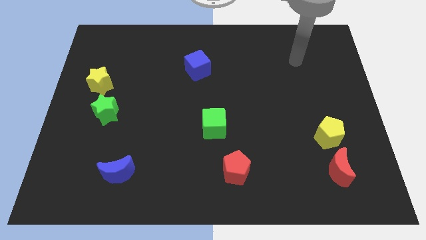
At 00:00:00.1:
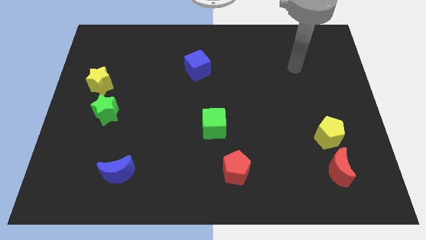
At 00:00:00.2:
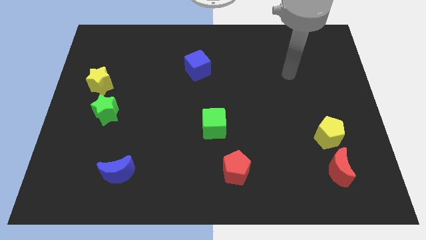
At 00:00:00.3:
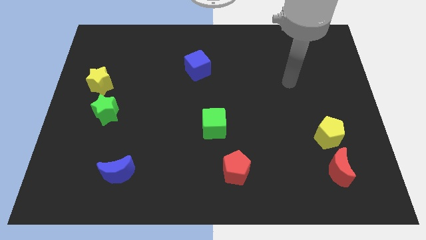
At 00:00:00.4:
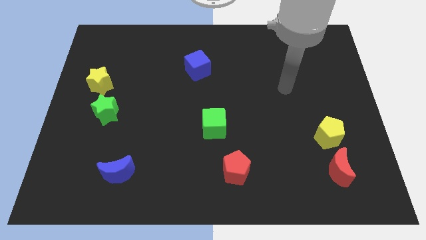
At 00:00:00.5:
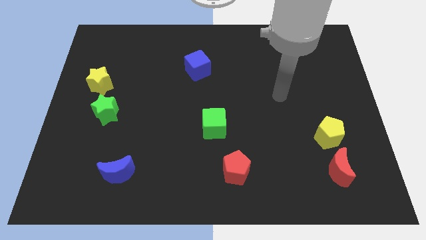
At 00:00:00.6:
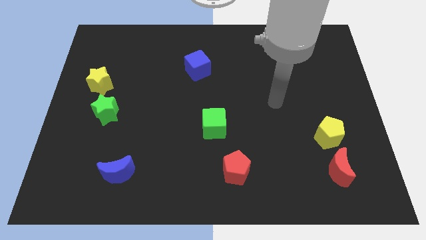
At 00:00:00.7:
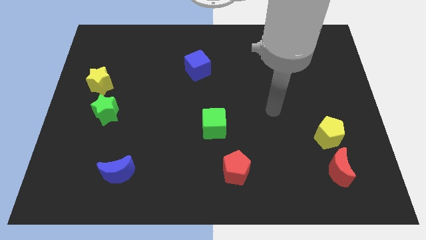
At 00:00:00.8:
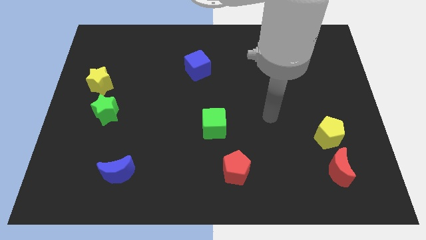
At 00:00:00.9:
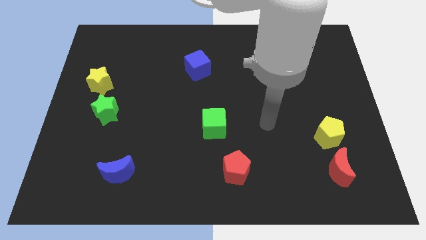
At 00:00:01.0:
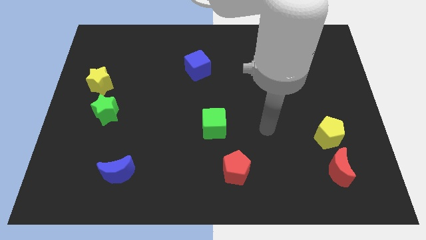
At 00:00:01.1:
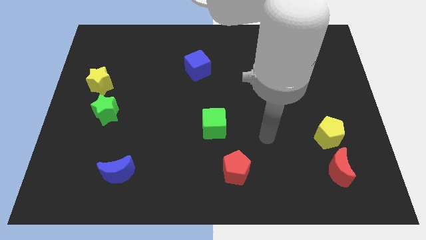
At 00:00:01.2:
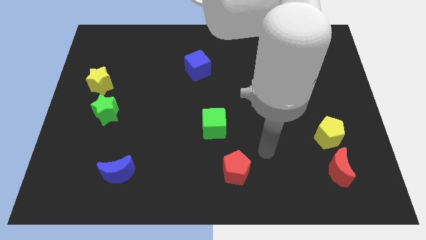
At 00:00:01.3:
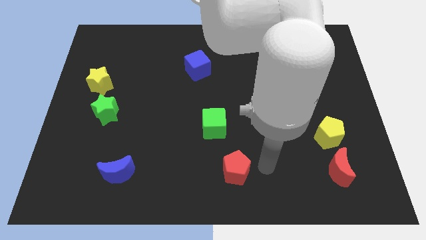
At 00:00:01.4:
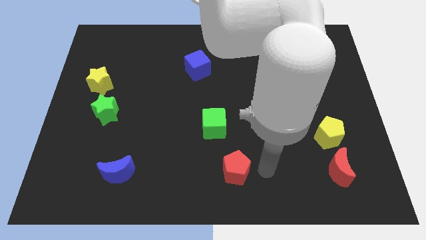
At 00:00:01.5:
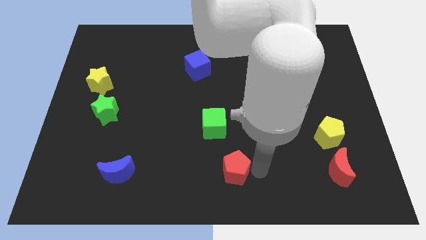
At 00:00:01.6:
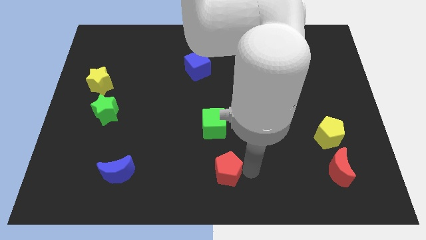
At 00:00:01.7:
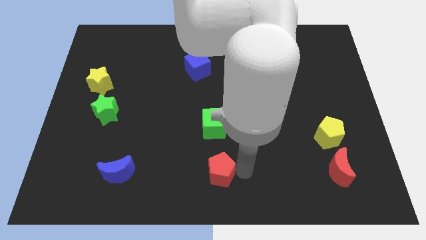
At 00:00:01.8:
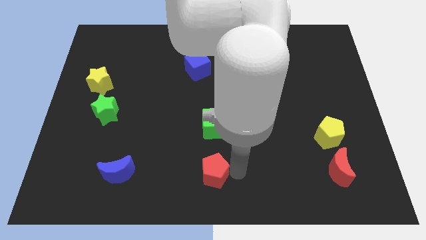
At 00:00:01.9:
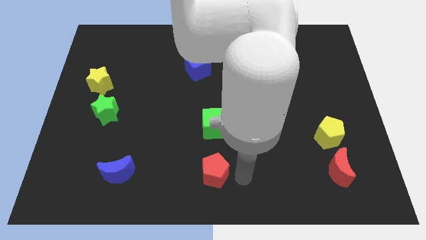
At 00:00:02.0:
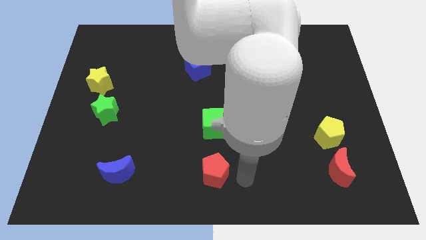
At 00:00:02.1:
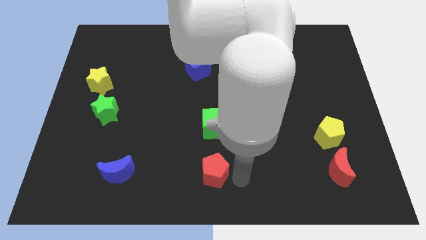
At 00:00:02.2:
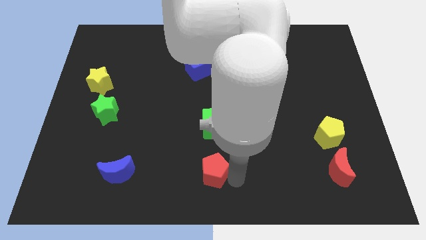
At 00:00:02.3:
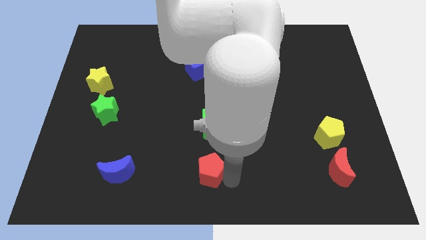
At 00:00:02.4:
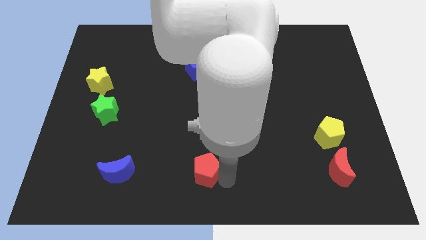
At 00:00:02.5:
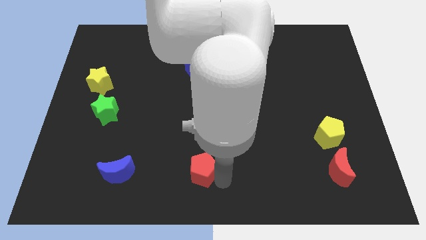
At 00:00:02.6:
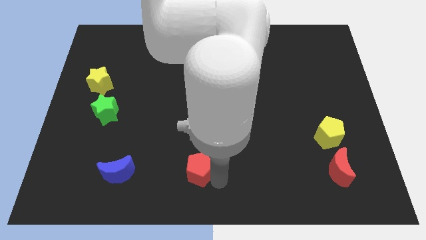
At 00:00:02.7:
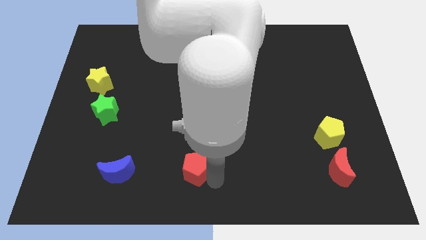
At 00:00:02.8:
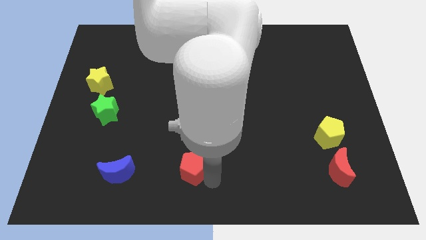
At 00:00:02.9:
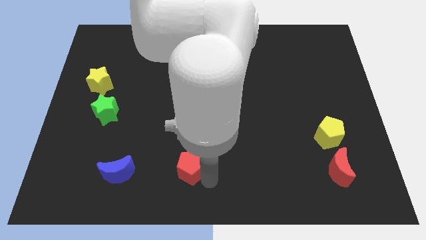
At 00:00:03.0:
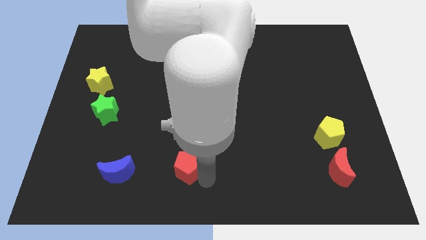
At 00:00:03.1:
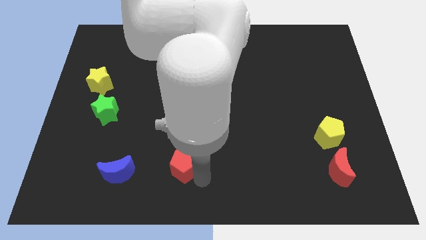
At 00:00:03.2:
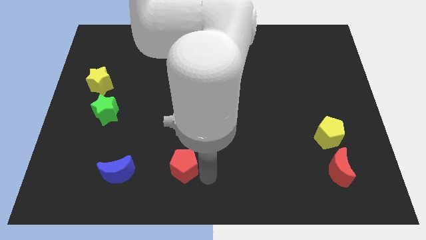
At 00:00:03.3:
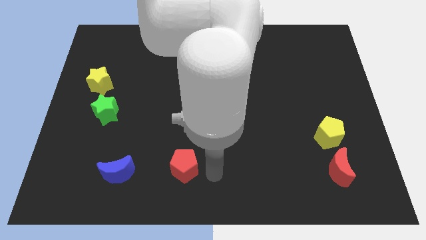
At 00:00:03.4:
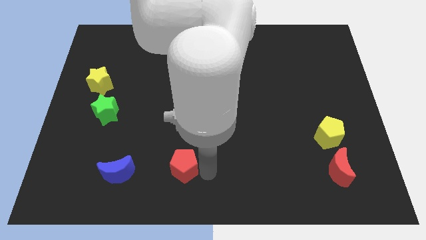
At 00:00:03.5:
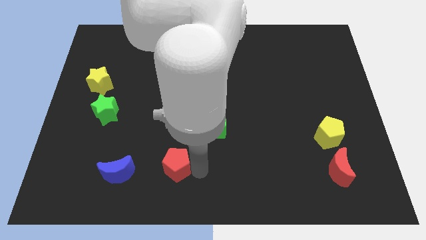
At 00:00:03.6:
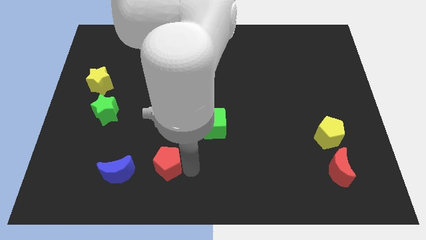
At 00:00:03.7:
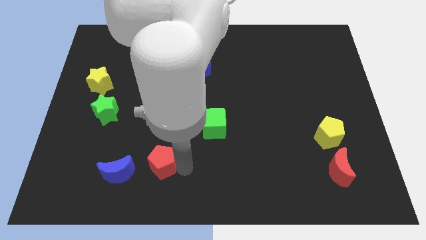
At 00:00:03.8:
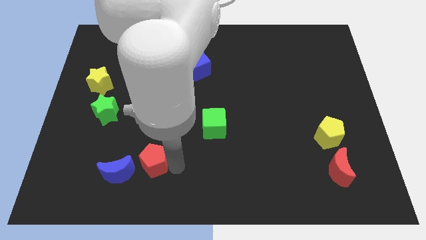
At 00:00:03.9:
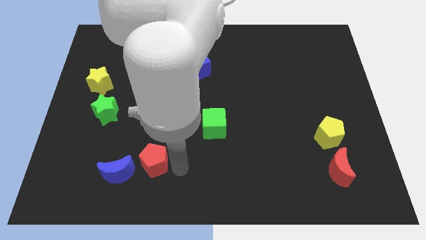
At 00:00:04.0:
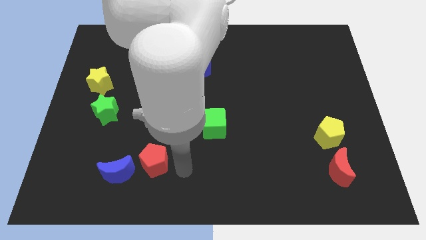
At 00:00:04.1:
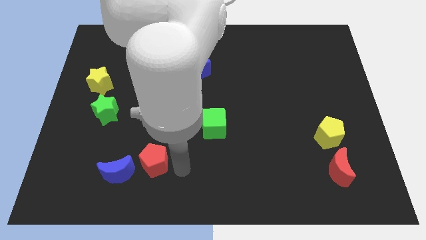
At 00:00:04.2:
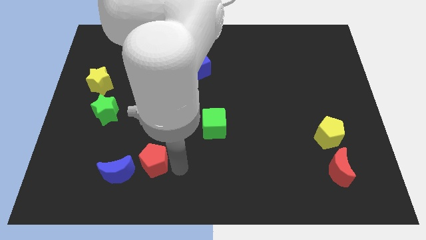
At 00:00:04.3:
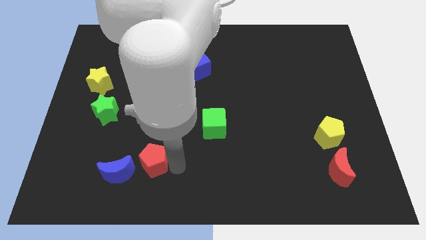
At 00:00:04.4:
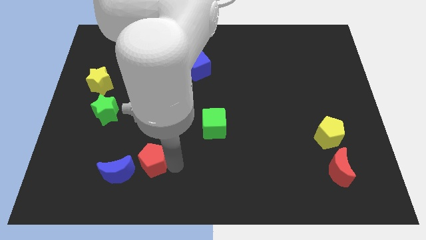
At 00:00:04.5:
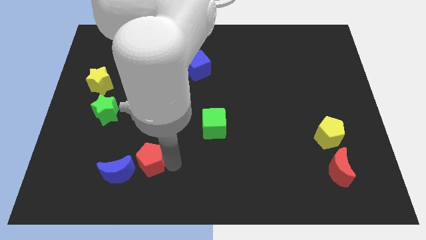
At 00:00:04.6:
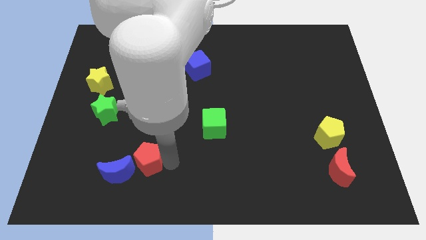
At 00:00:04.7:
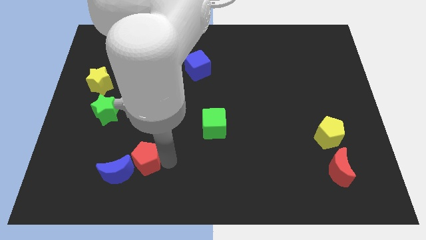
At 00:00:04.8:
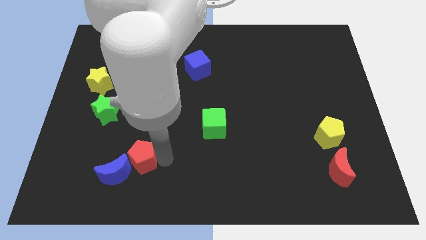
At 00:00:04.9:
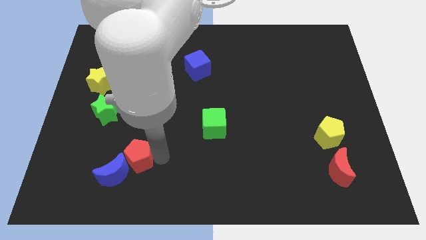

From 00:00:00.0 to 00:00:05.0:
slide the red pentagon to the left

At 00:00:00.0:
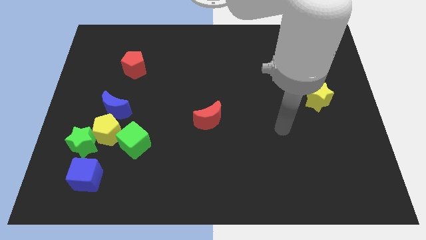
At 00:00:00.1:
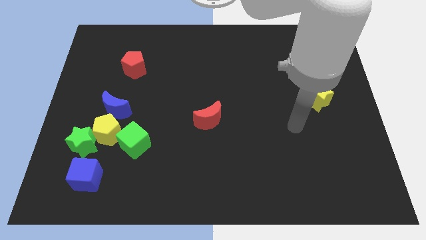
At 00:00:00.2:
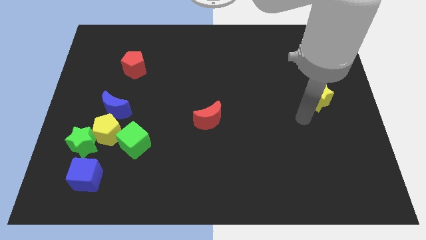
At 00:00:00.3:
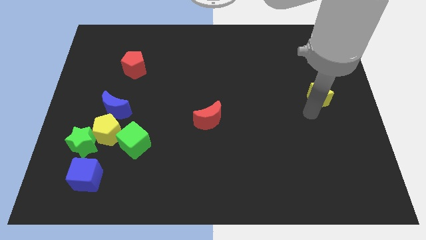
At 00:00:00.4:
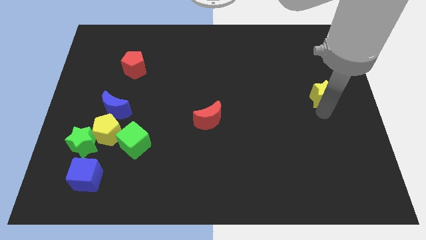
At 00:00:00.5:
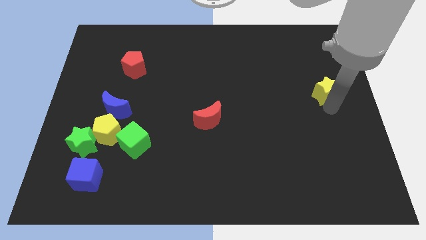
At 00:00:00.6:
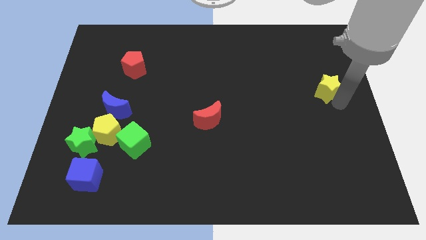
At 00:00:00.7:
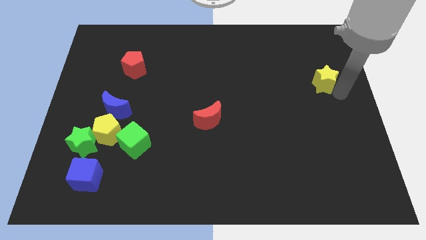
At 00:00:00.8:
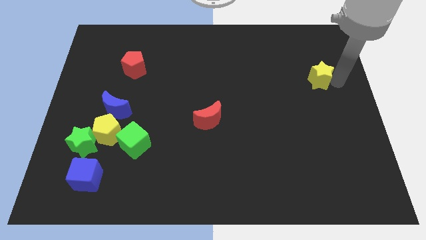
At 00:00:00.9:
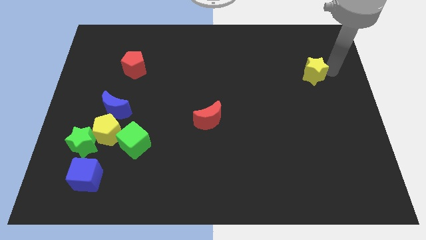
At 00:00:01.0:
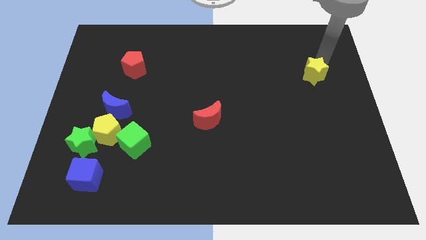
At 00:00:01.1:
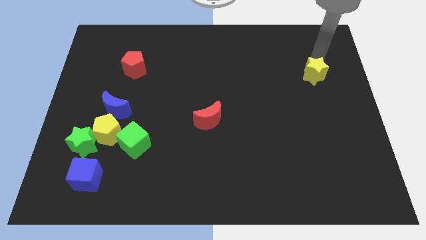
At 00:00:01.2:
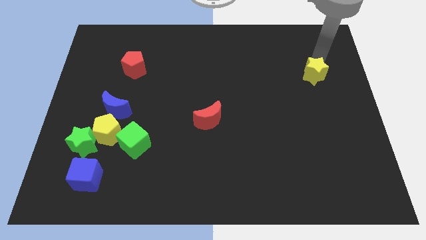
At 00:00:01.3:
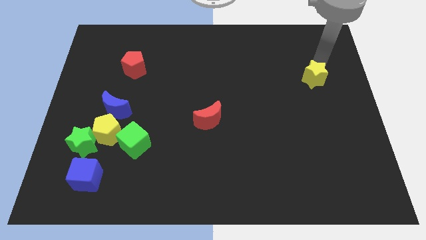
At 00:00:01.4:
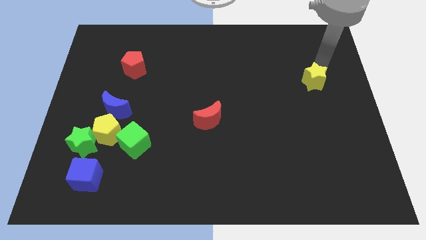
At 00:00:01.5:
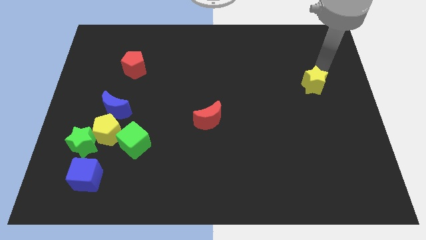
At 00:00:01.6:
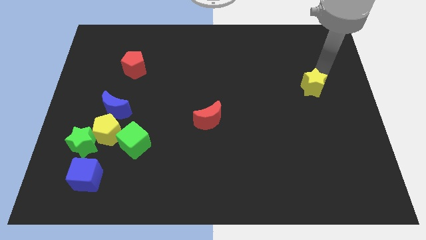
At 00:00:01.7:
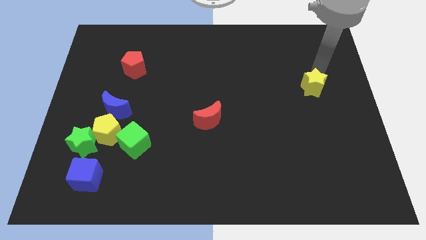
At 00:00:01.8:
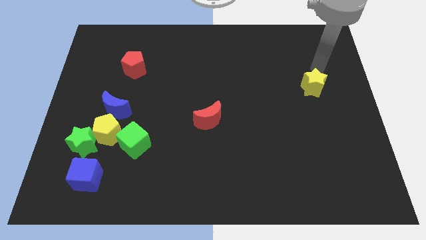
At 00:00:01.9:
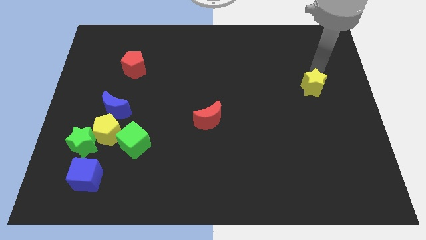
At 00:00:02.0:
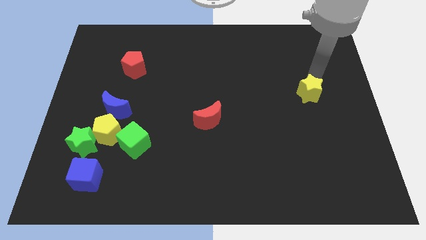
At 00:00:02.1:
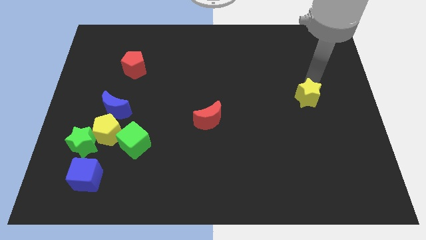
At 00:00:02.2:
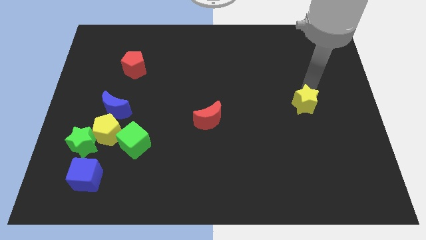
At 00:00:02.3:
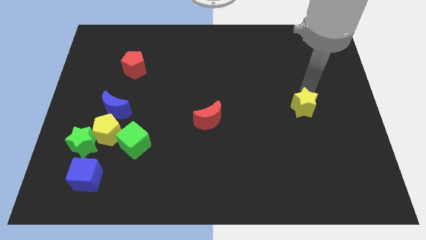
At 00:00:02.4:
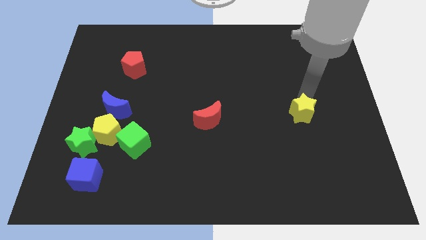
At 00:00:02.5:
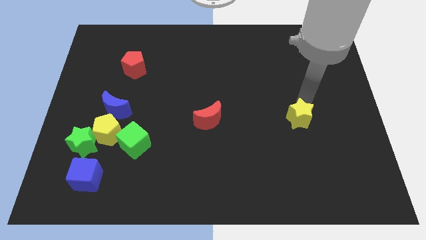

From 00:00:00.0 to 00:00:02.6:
slide the yellow star a little bit diagonally down and left

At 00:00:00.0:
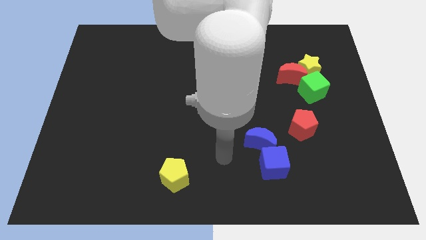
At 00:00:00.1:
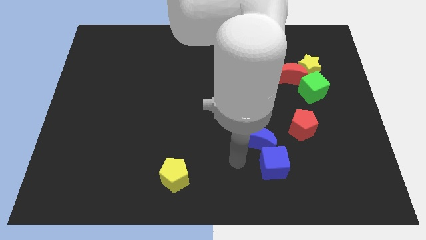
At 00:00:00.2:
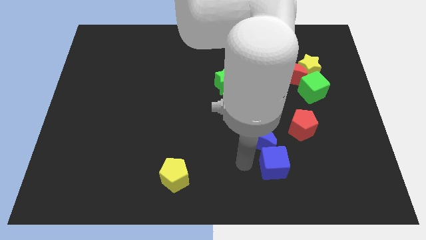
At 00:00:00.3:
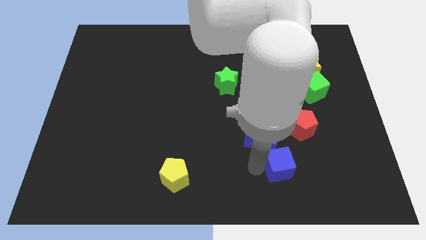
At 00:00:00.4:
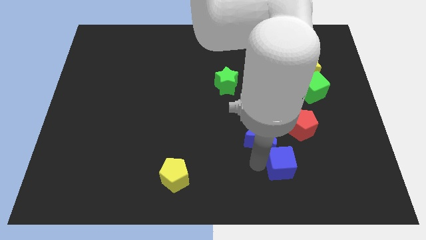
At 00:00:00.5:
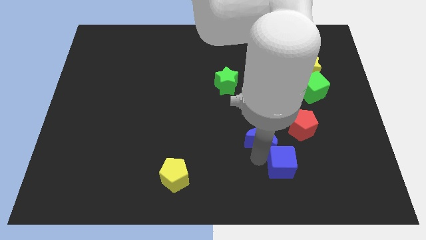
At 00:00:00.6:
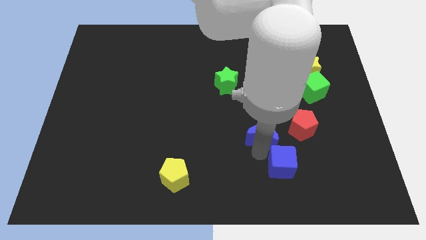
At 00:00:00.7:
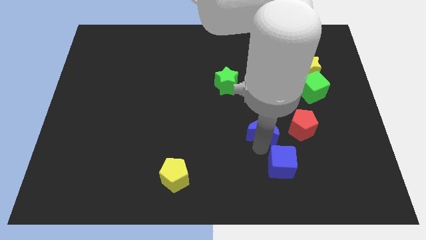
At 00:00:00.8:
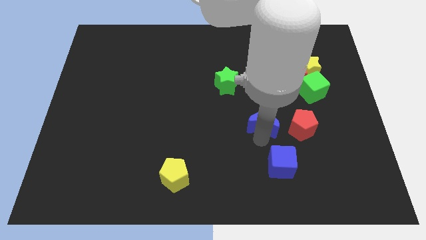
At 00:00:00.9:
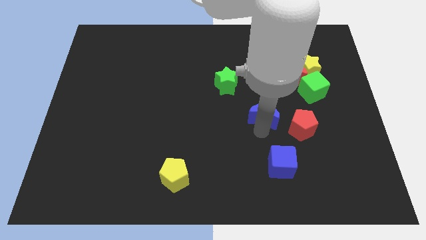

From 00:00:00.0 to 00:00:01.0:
move the blue moon up somewhat
